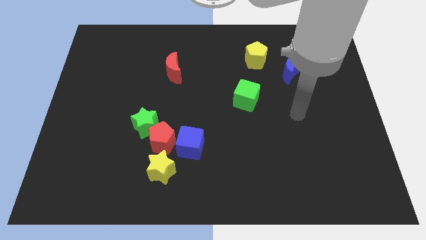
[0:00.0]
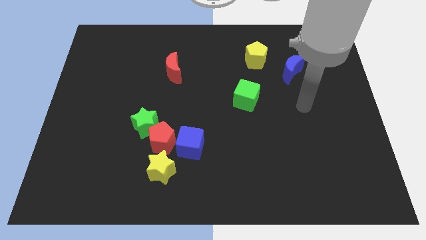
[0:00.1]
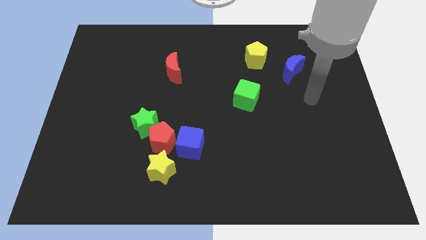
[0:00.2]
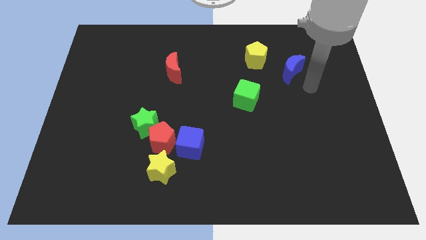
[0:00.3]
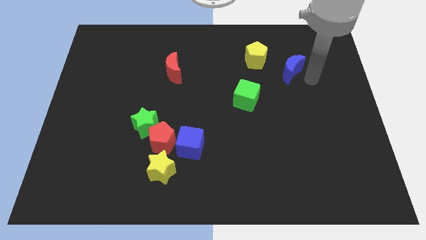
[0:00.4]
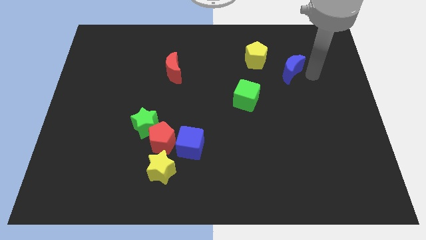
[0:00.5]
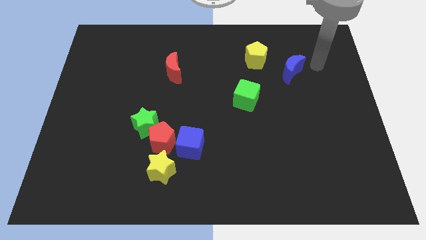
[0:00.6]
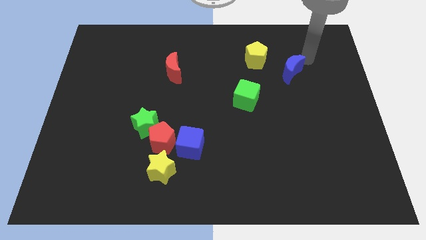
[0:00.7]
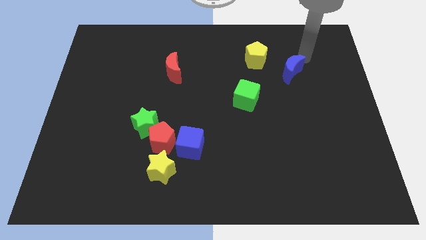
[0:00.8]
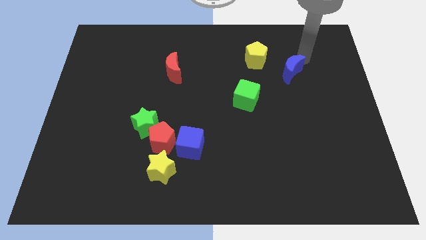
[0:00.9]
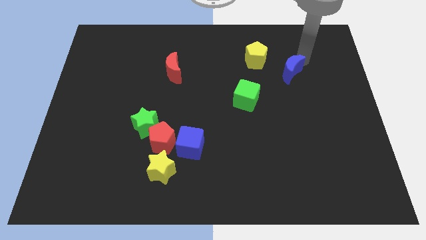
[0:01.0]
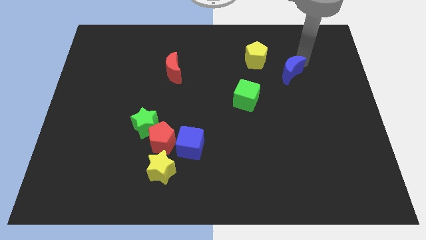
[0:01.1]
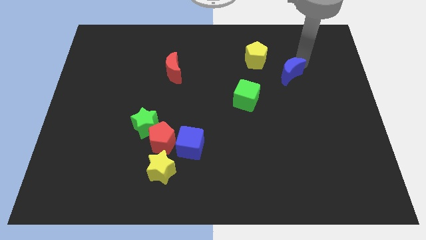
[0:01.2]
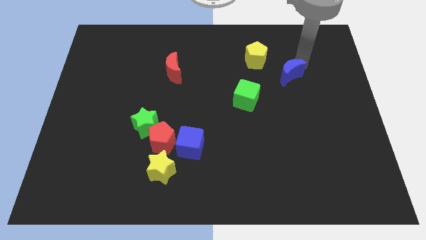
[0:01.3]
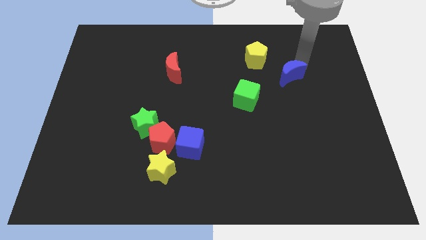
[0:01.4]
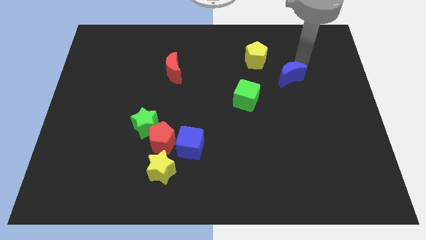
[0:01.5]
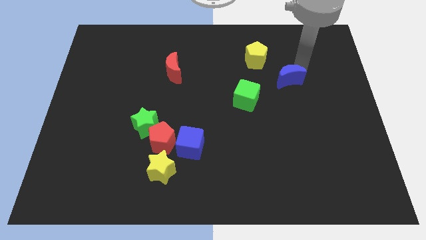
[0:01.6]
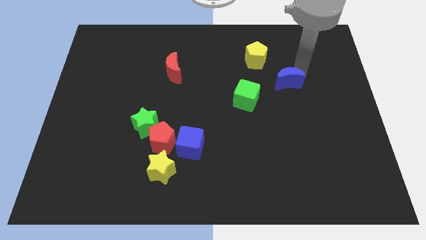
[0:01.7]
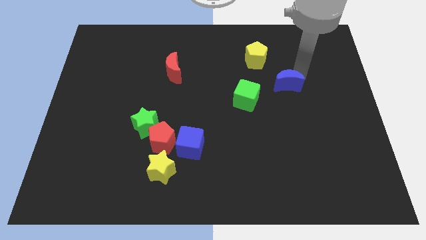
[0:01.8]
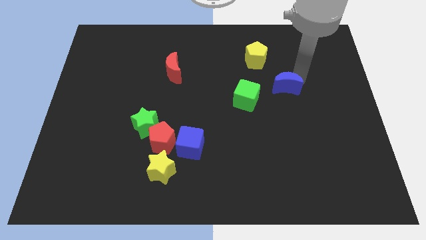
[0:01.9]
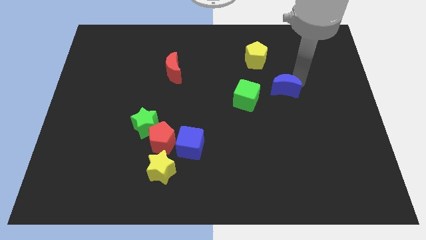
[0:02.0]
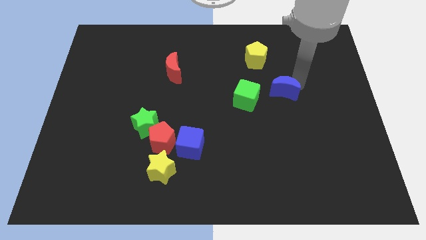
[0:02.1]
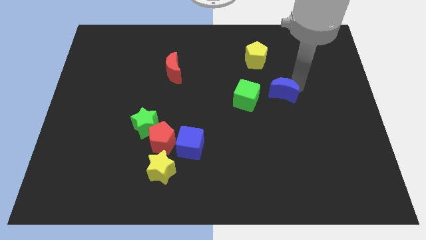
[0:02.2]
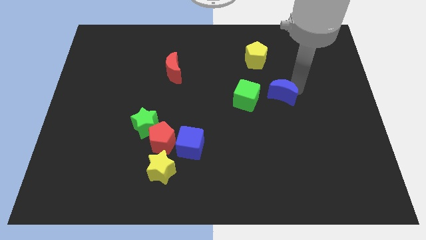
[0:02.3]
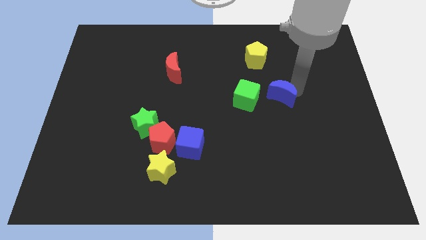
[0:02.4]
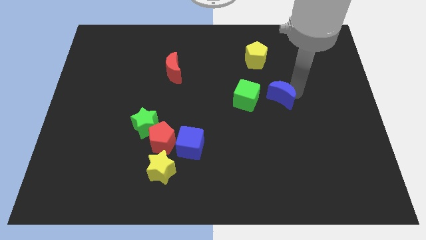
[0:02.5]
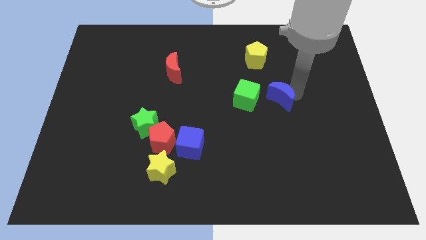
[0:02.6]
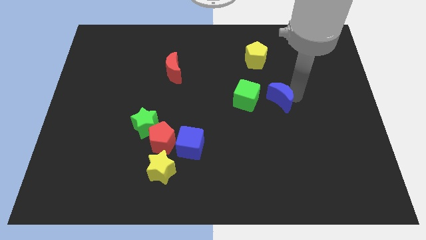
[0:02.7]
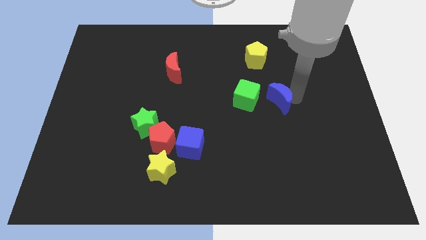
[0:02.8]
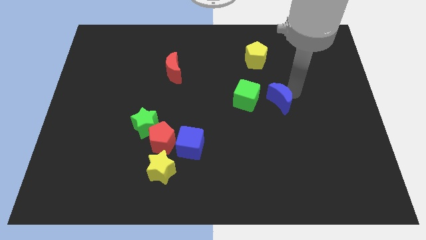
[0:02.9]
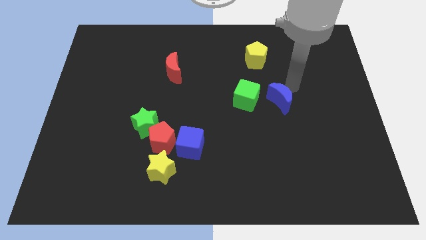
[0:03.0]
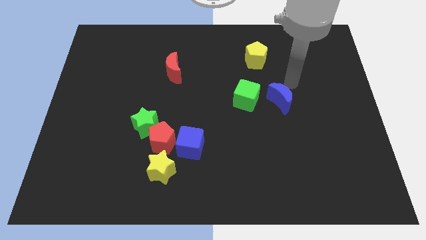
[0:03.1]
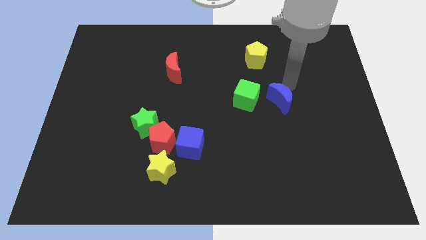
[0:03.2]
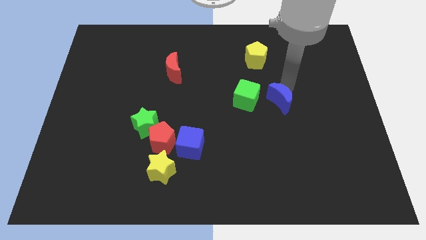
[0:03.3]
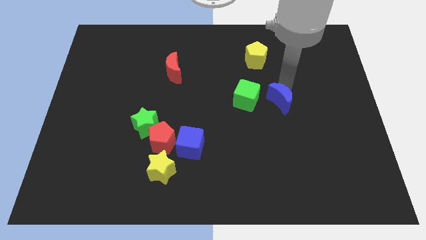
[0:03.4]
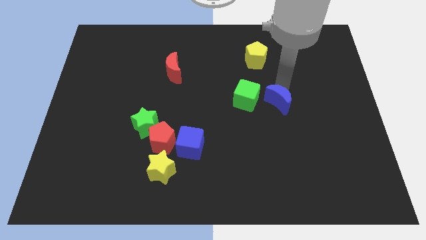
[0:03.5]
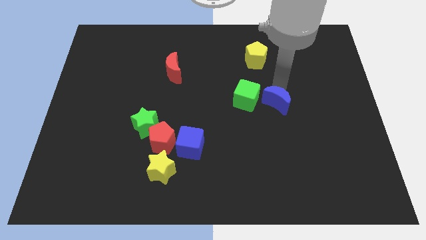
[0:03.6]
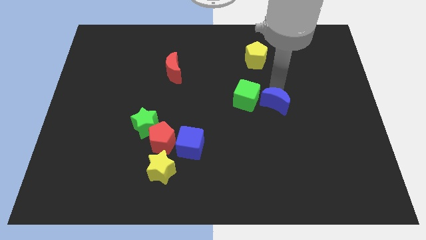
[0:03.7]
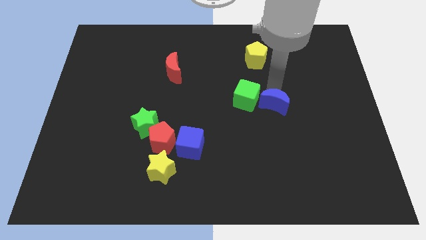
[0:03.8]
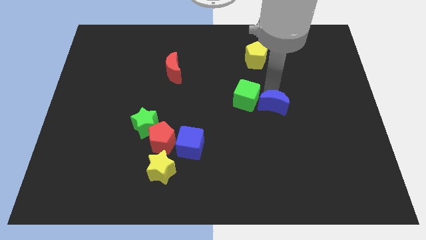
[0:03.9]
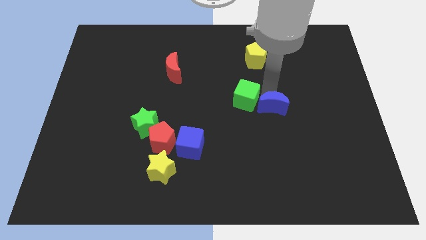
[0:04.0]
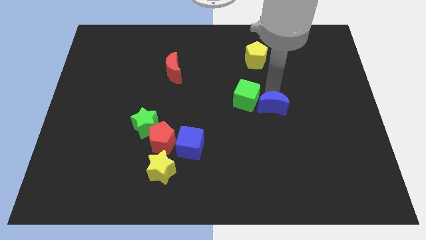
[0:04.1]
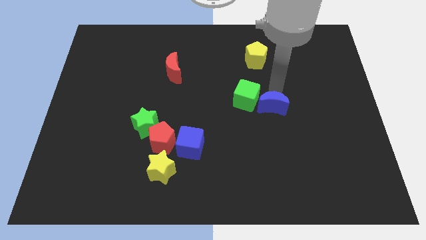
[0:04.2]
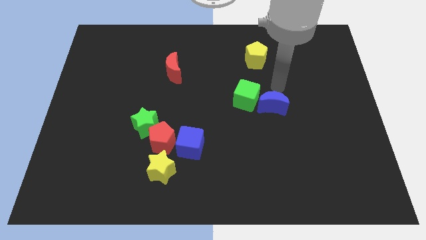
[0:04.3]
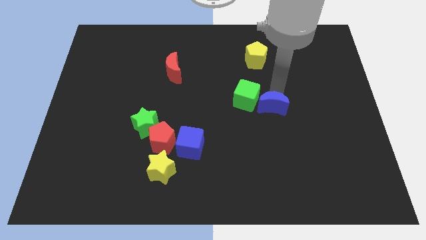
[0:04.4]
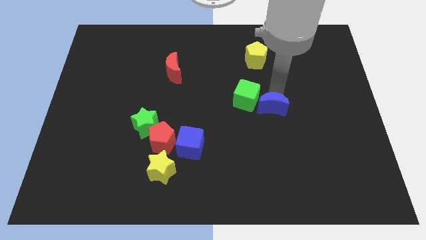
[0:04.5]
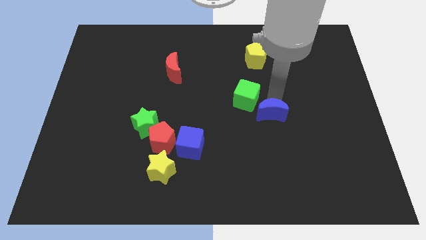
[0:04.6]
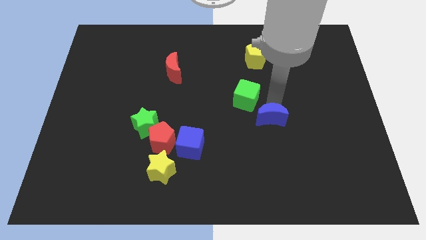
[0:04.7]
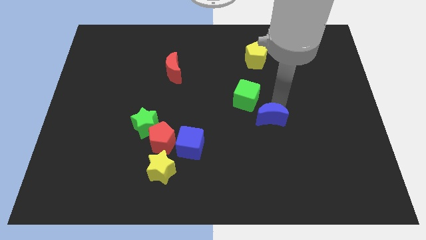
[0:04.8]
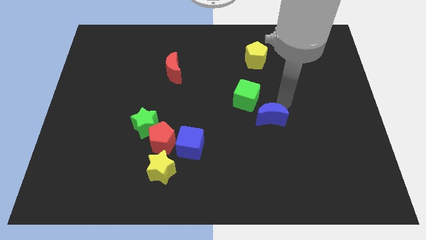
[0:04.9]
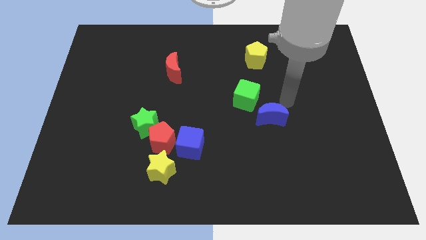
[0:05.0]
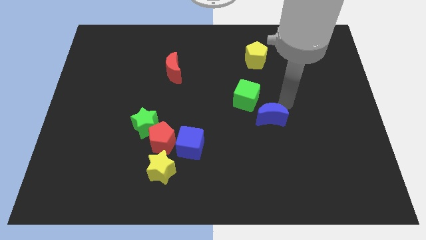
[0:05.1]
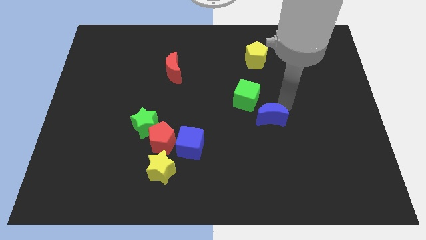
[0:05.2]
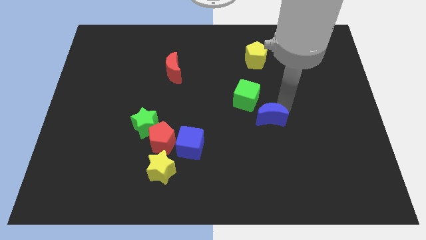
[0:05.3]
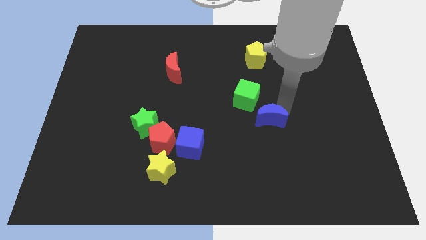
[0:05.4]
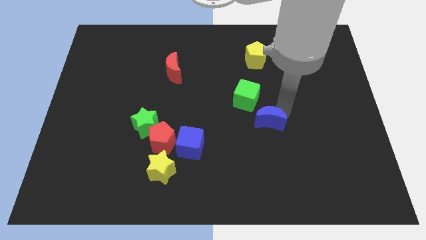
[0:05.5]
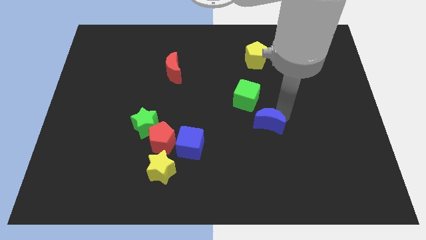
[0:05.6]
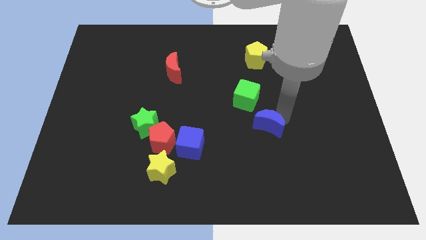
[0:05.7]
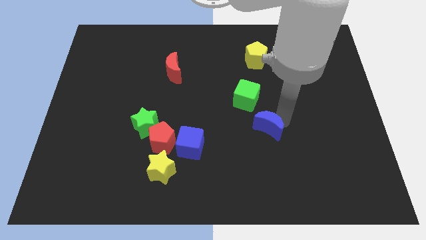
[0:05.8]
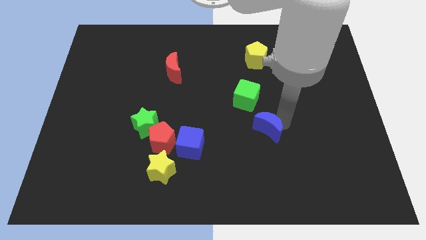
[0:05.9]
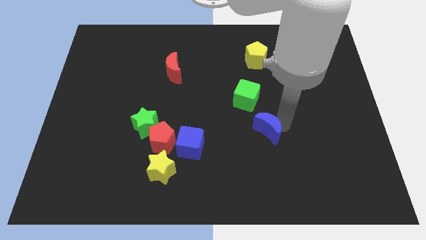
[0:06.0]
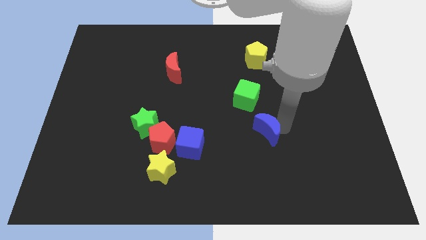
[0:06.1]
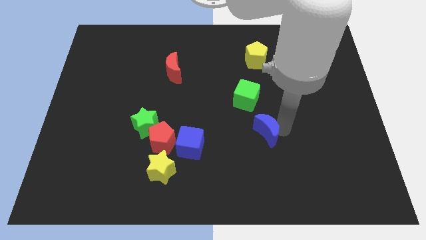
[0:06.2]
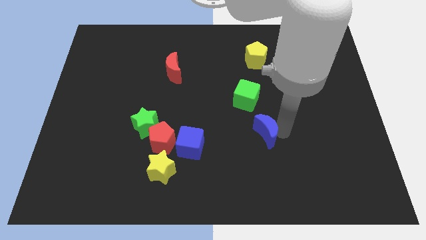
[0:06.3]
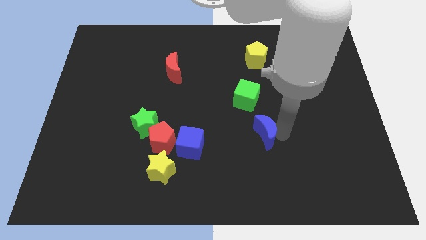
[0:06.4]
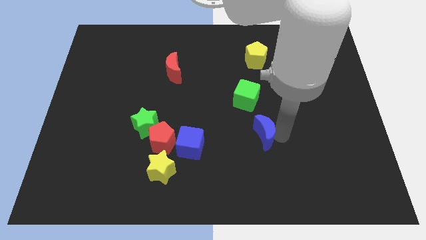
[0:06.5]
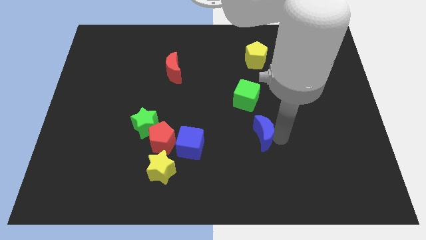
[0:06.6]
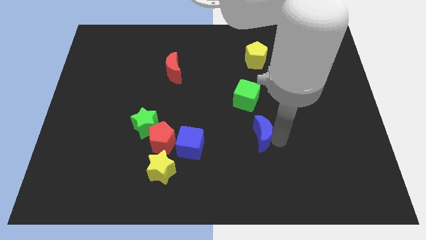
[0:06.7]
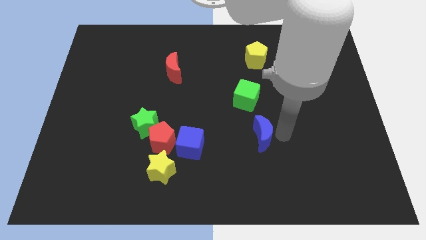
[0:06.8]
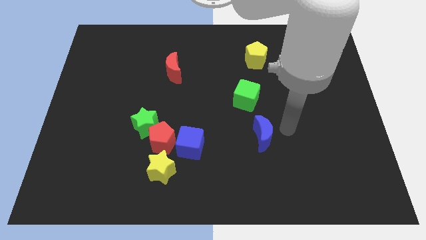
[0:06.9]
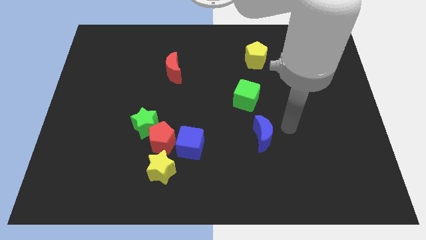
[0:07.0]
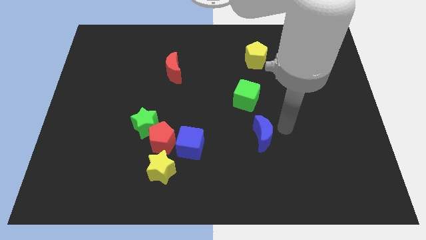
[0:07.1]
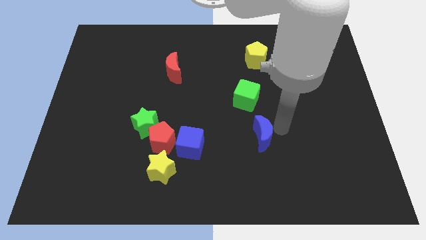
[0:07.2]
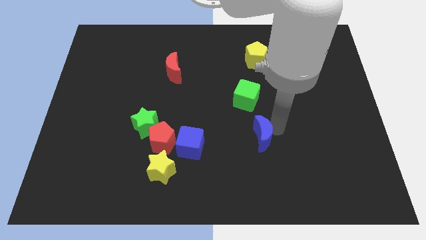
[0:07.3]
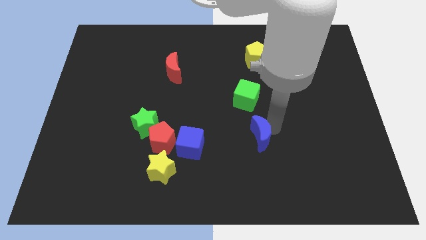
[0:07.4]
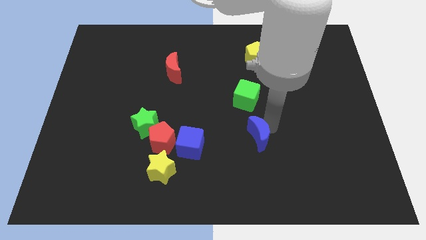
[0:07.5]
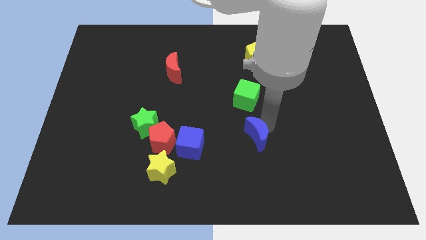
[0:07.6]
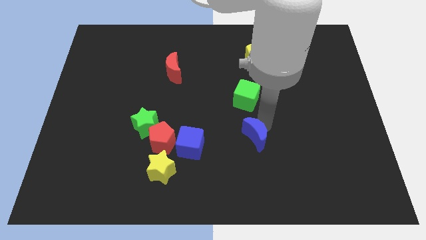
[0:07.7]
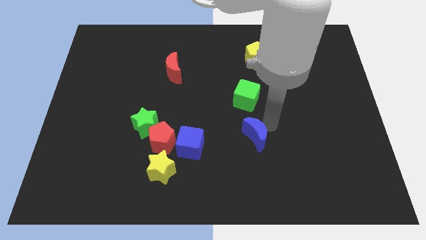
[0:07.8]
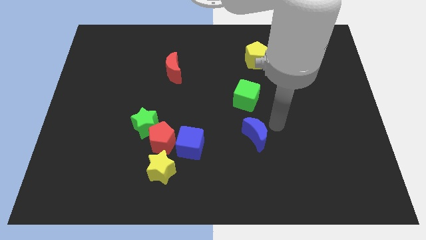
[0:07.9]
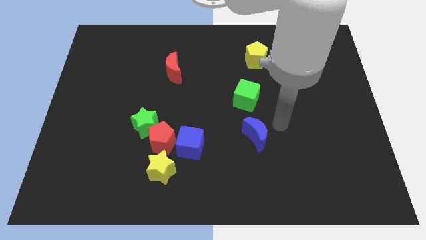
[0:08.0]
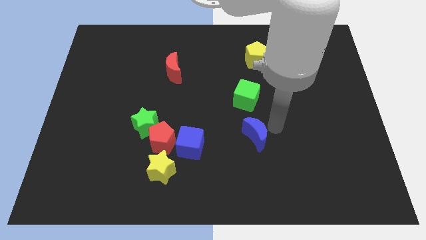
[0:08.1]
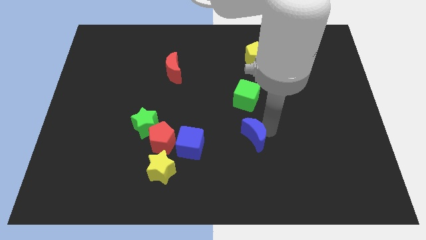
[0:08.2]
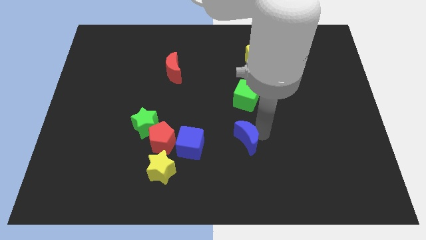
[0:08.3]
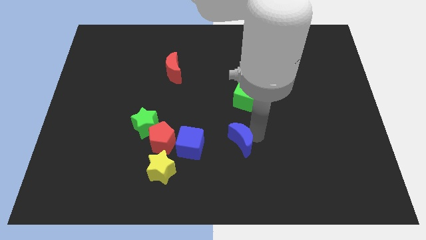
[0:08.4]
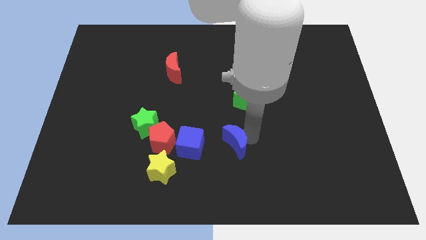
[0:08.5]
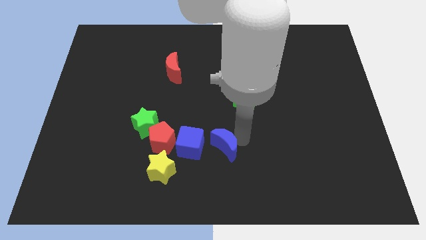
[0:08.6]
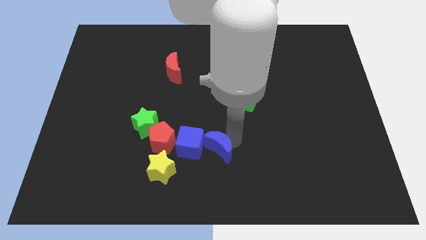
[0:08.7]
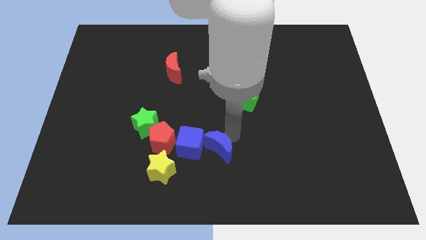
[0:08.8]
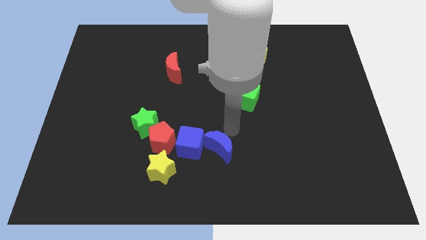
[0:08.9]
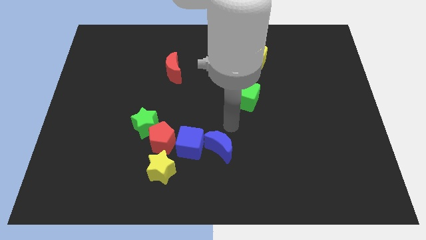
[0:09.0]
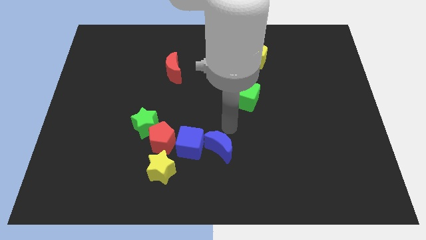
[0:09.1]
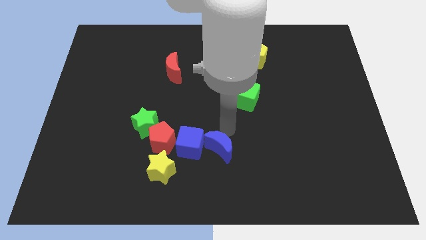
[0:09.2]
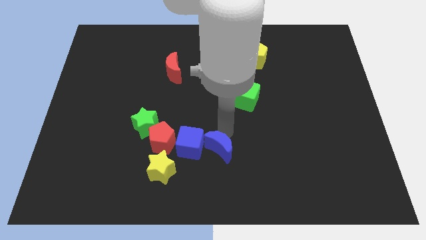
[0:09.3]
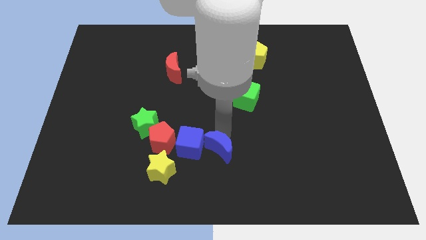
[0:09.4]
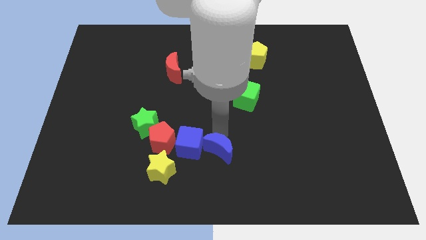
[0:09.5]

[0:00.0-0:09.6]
put the blue moon to the right of the yellow star
